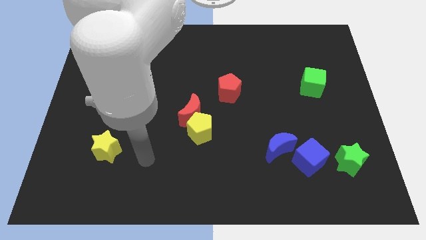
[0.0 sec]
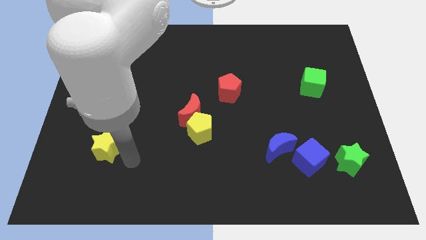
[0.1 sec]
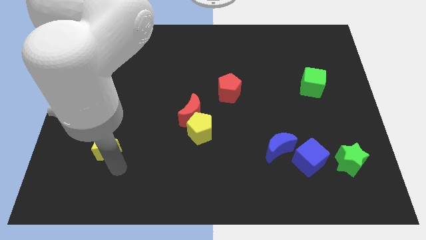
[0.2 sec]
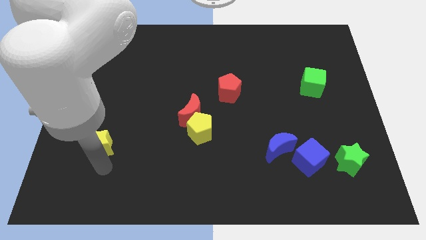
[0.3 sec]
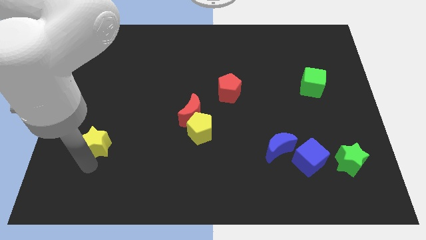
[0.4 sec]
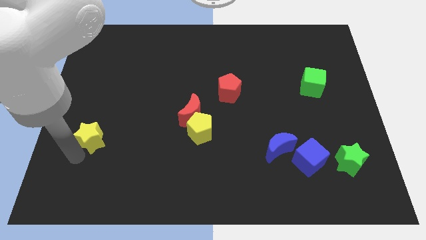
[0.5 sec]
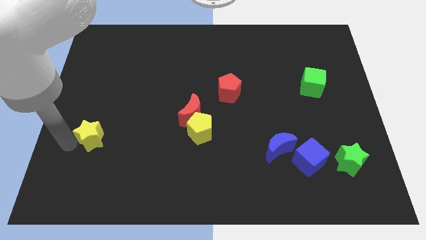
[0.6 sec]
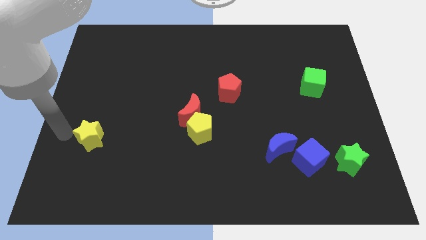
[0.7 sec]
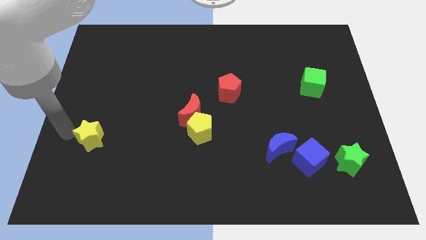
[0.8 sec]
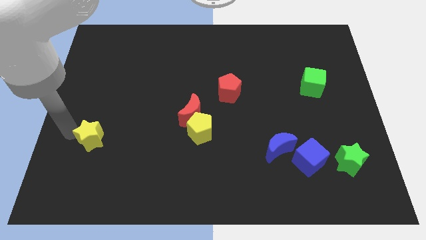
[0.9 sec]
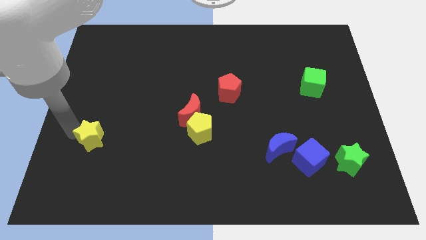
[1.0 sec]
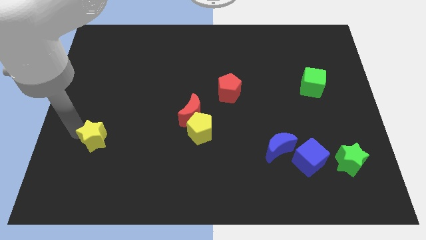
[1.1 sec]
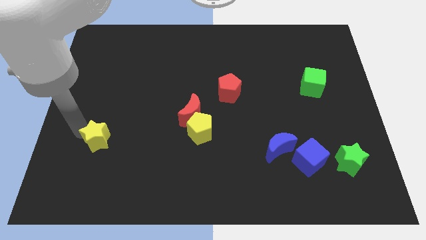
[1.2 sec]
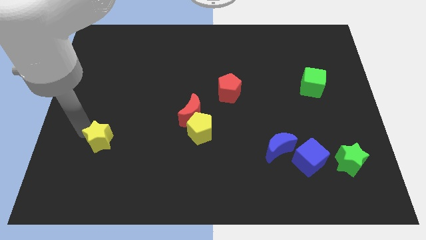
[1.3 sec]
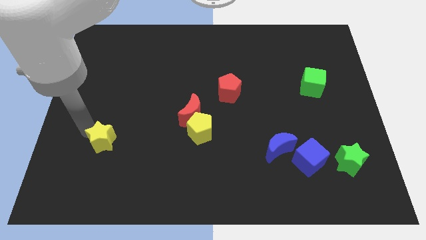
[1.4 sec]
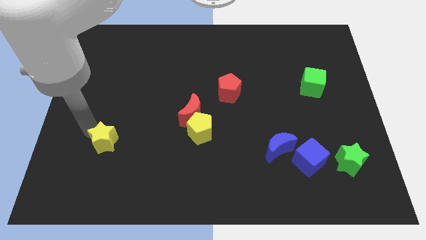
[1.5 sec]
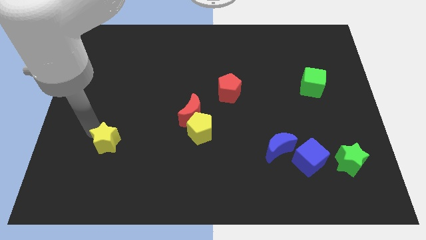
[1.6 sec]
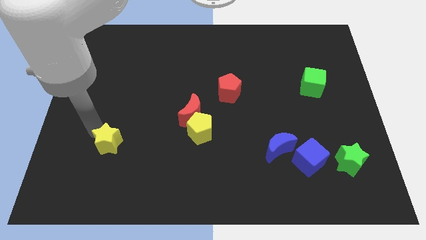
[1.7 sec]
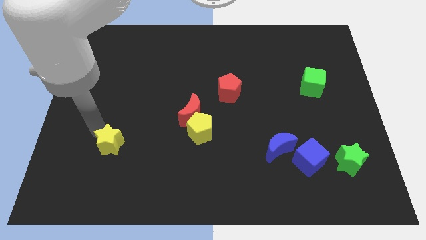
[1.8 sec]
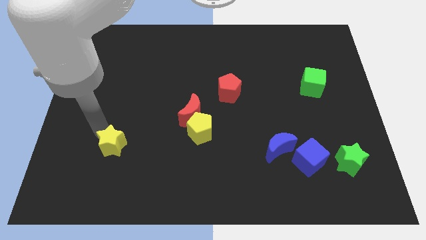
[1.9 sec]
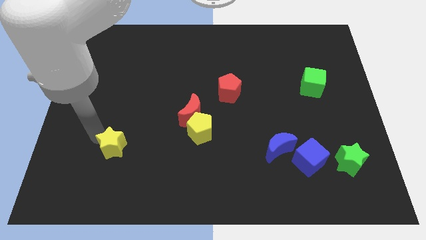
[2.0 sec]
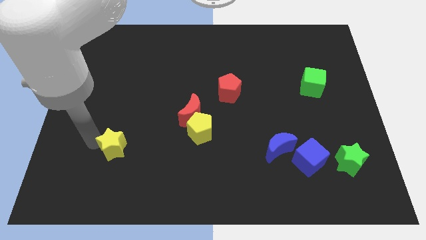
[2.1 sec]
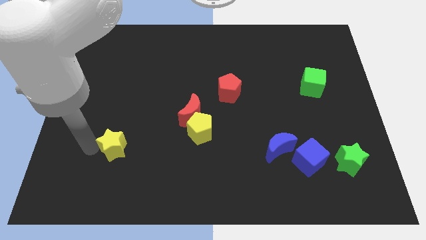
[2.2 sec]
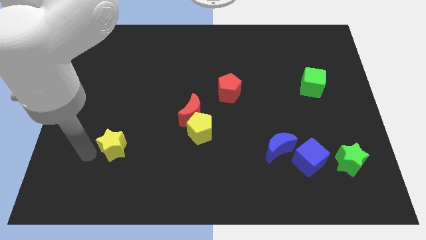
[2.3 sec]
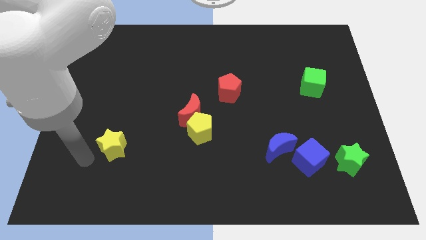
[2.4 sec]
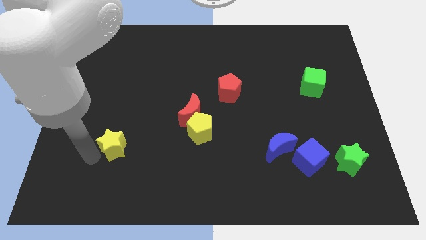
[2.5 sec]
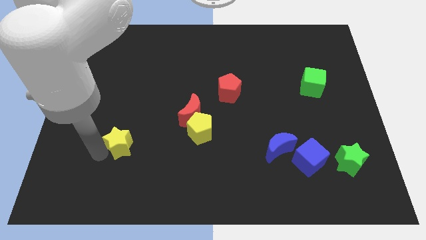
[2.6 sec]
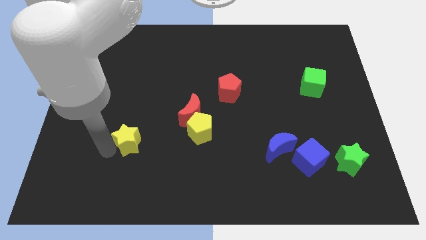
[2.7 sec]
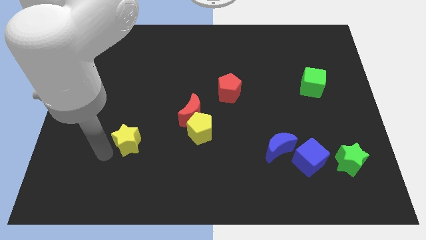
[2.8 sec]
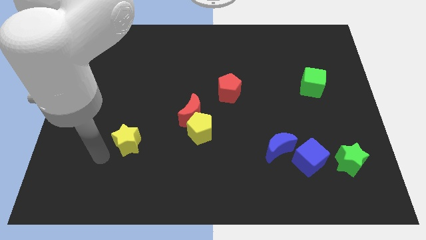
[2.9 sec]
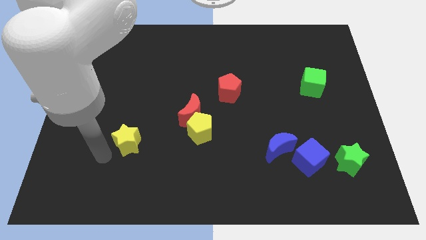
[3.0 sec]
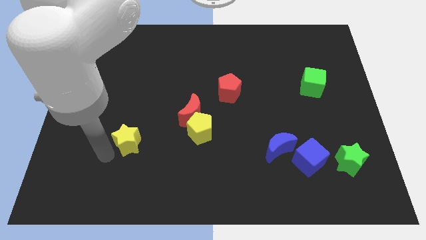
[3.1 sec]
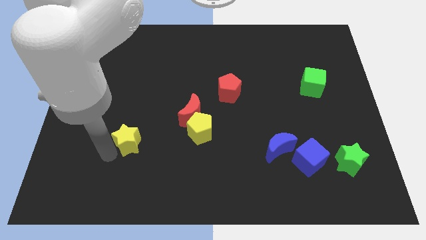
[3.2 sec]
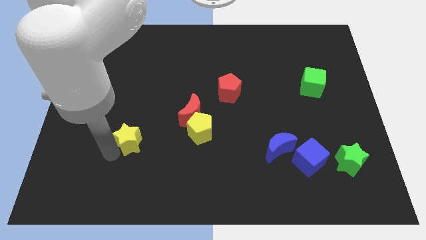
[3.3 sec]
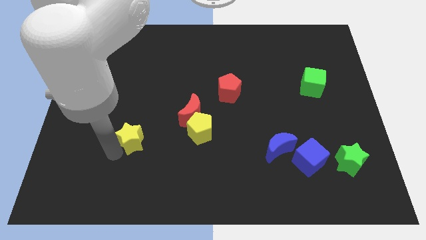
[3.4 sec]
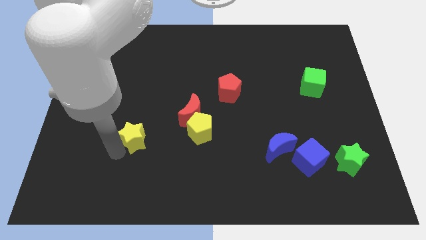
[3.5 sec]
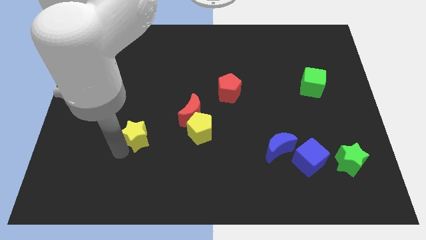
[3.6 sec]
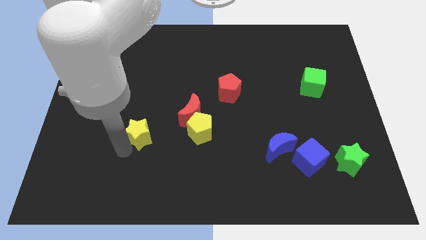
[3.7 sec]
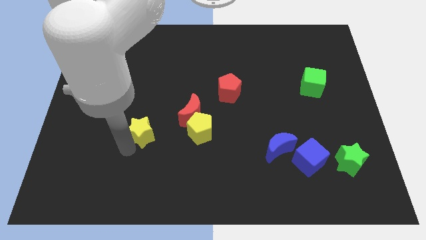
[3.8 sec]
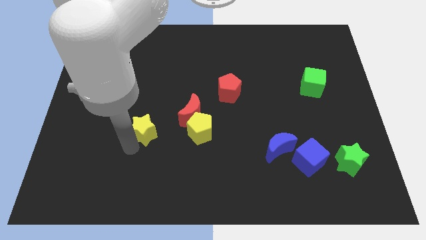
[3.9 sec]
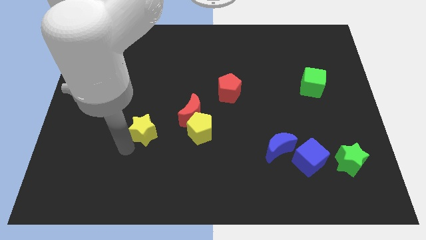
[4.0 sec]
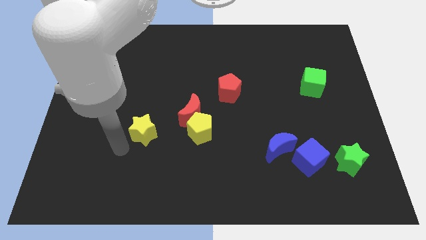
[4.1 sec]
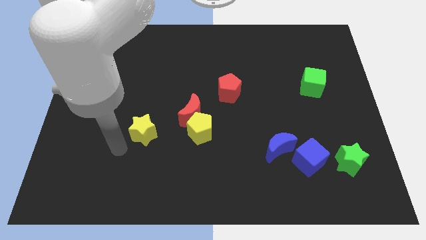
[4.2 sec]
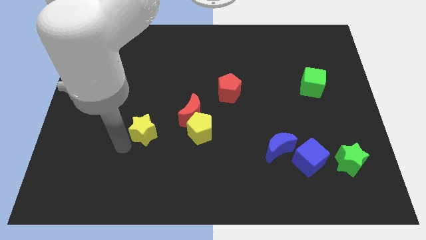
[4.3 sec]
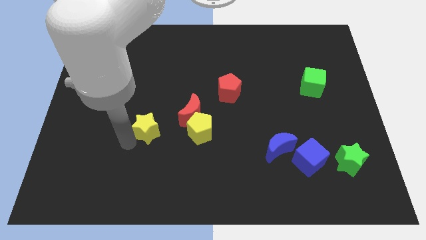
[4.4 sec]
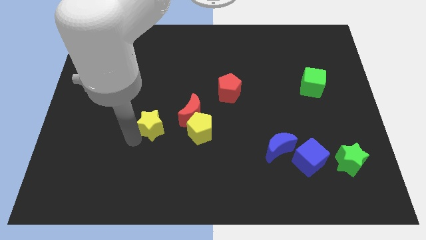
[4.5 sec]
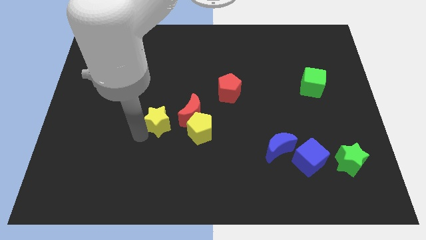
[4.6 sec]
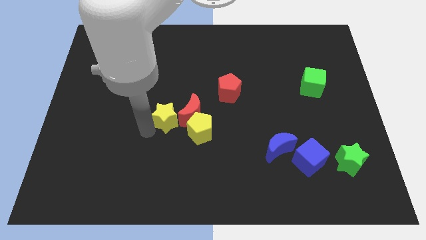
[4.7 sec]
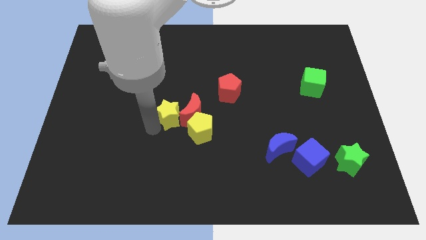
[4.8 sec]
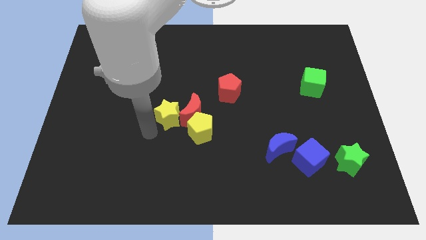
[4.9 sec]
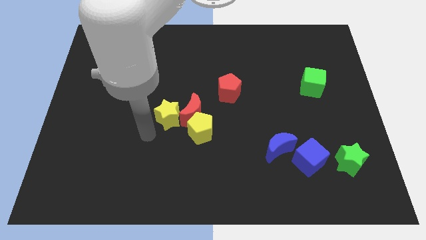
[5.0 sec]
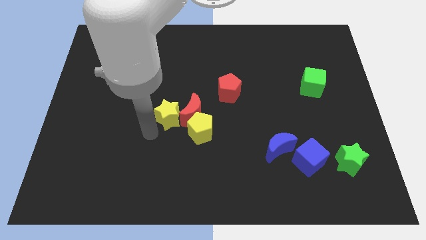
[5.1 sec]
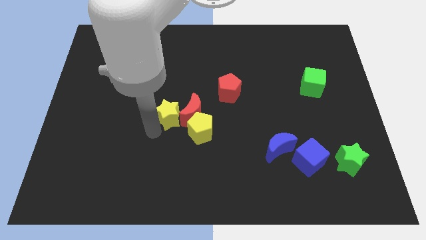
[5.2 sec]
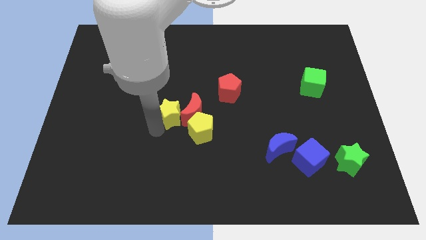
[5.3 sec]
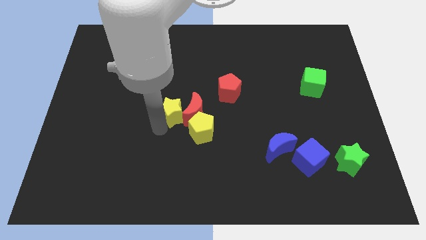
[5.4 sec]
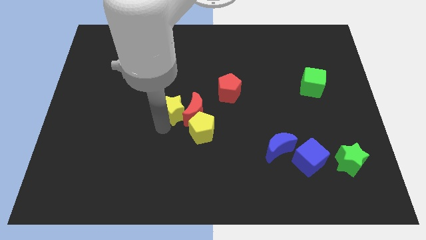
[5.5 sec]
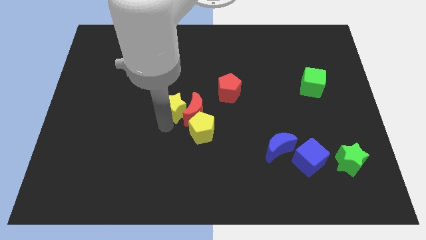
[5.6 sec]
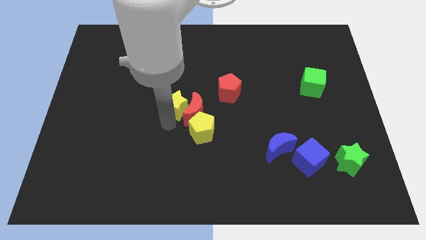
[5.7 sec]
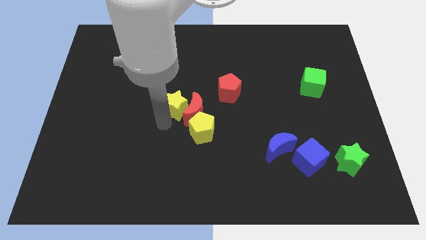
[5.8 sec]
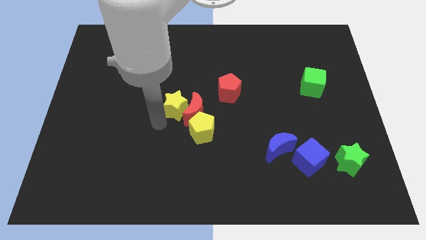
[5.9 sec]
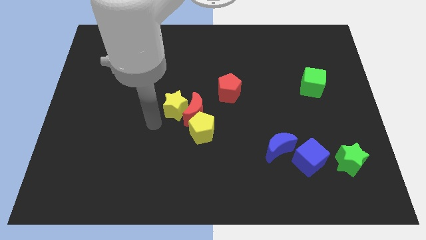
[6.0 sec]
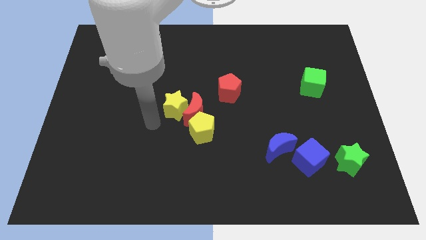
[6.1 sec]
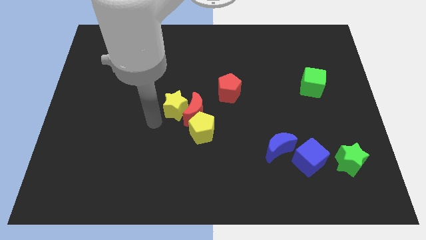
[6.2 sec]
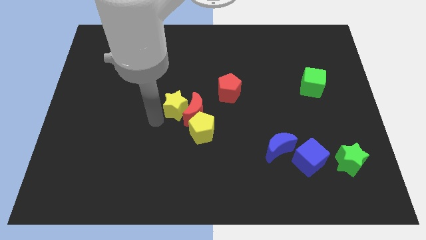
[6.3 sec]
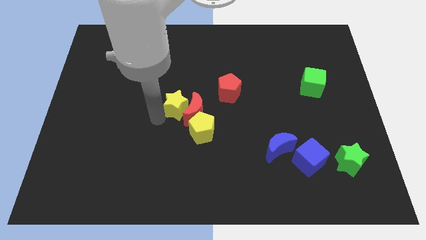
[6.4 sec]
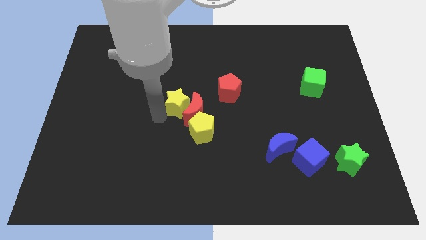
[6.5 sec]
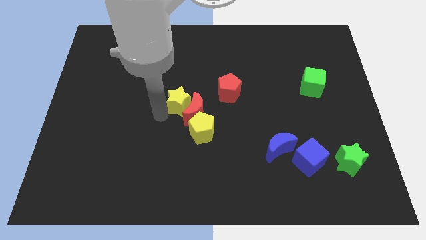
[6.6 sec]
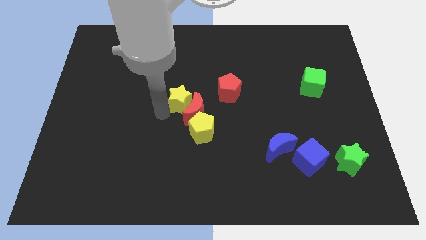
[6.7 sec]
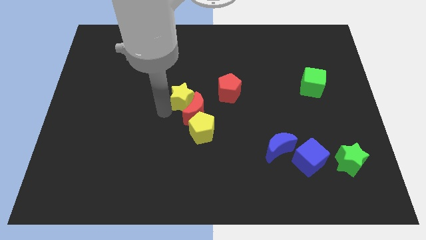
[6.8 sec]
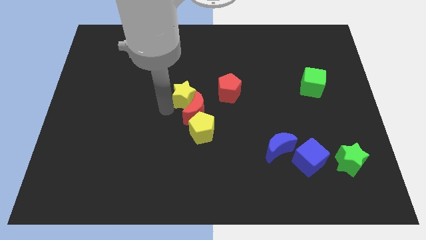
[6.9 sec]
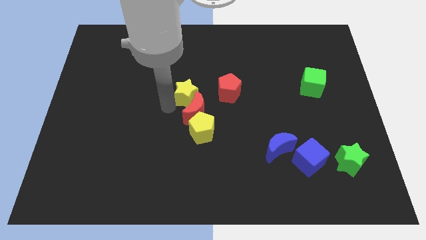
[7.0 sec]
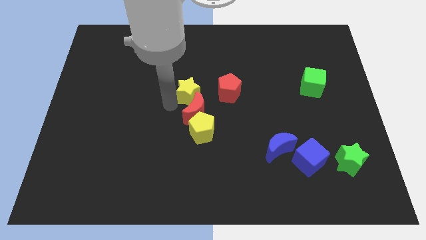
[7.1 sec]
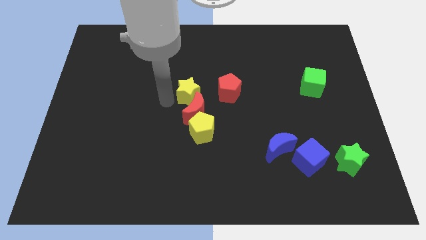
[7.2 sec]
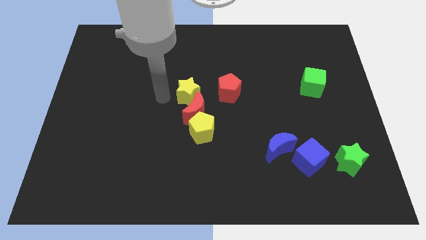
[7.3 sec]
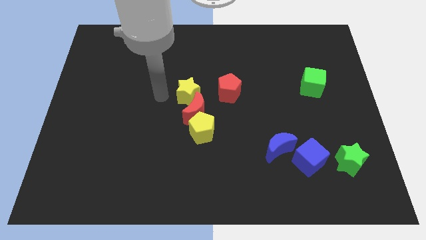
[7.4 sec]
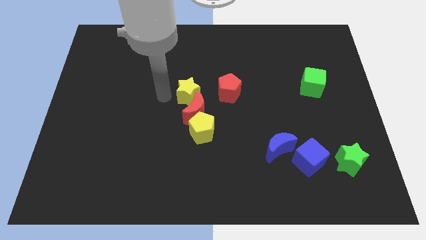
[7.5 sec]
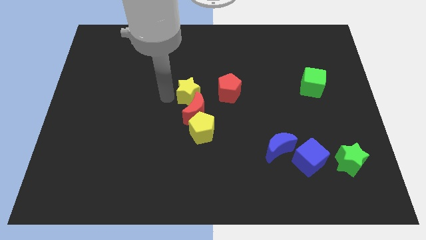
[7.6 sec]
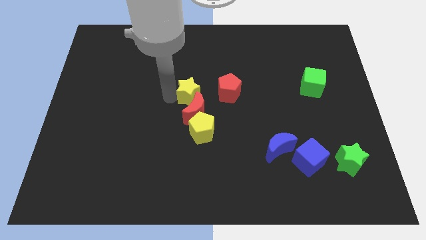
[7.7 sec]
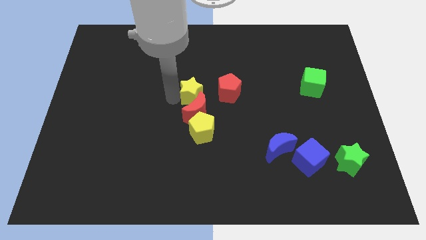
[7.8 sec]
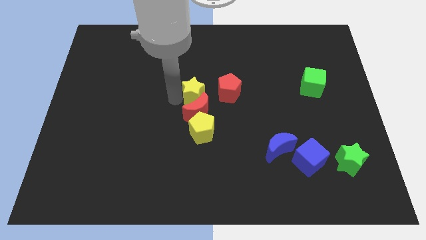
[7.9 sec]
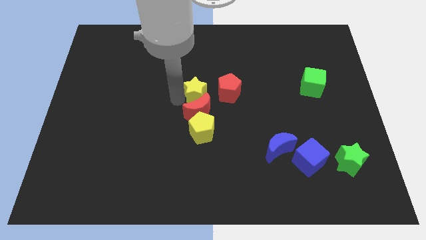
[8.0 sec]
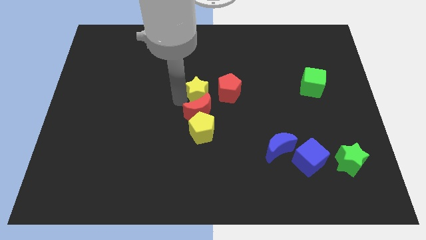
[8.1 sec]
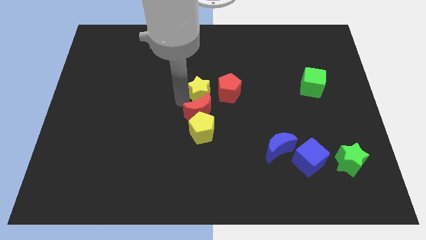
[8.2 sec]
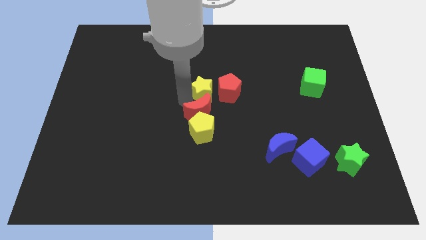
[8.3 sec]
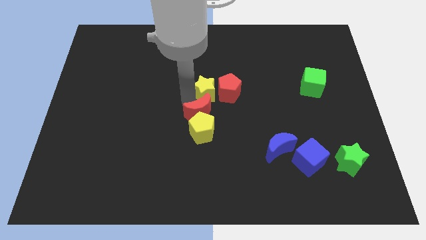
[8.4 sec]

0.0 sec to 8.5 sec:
put the yellow star close to the red pentagon
